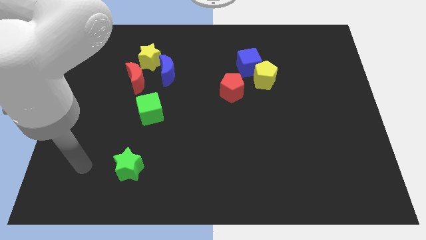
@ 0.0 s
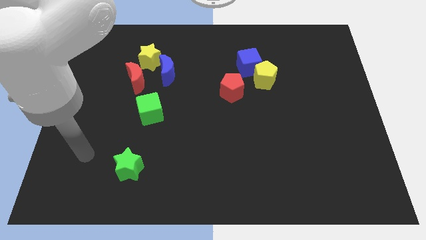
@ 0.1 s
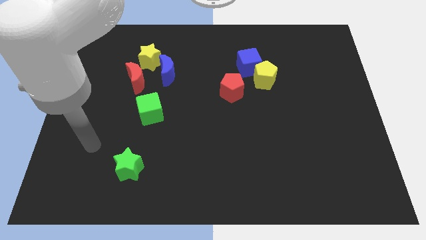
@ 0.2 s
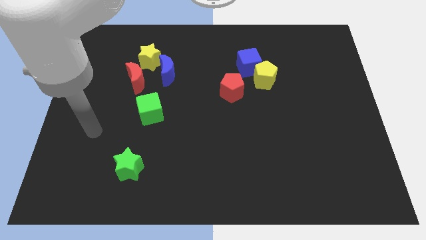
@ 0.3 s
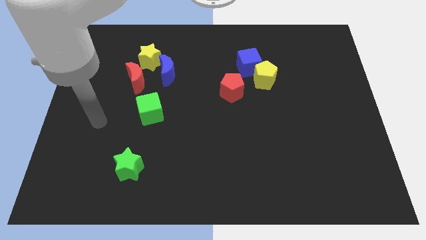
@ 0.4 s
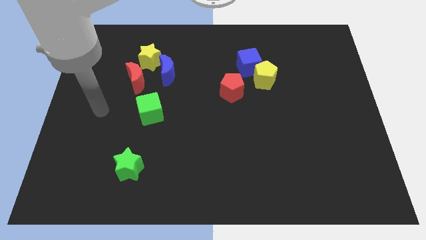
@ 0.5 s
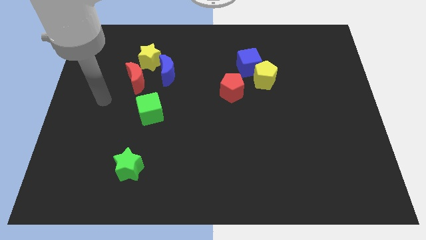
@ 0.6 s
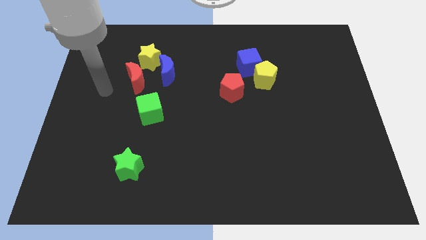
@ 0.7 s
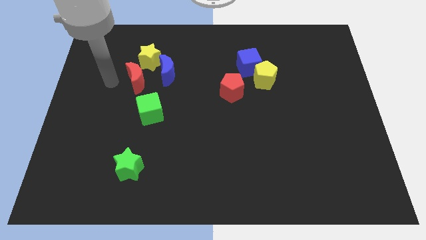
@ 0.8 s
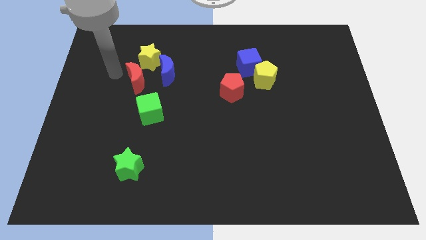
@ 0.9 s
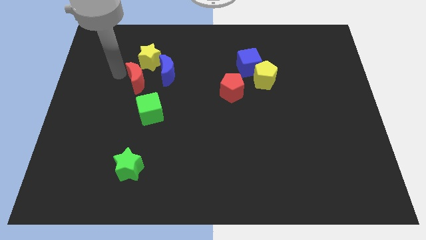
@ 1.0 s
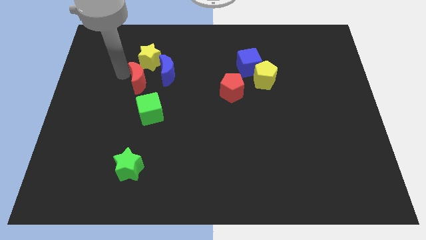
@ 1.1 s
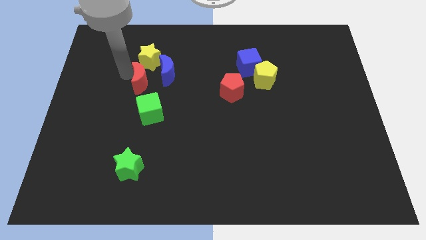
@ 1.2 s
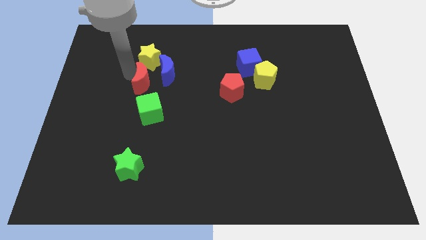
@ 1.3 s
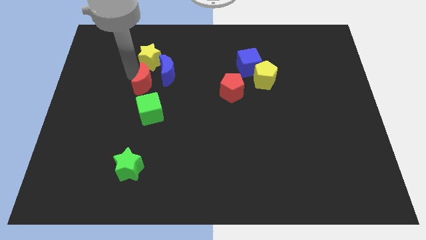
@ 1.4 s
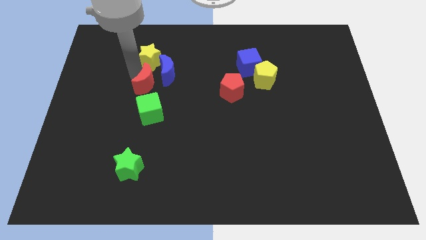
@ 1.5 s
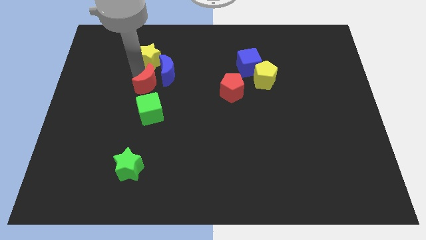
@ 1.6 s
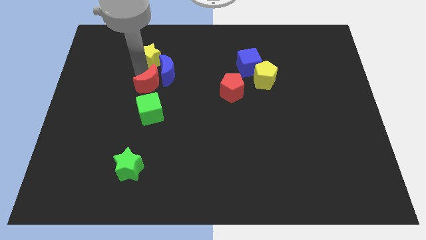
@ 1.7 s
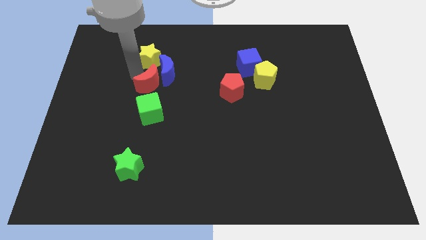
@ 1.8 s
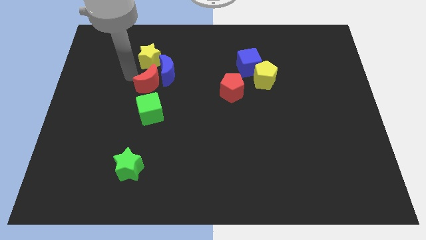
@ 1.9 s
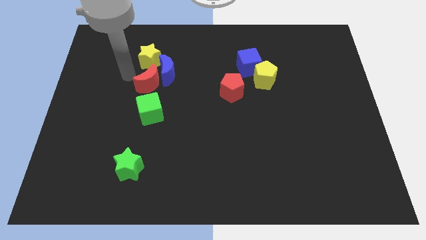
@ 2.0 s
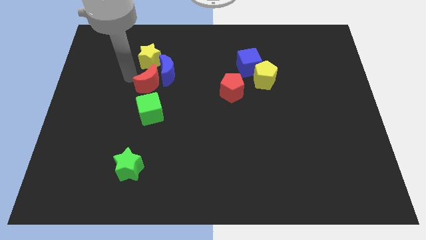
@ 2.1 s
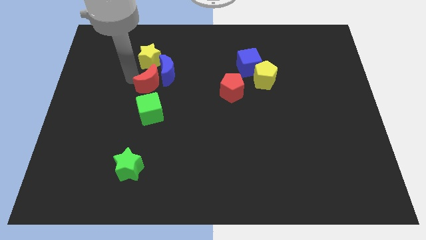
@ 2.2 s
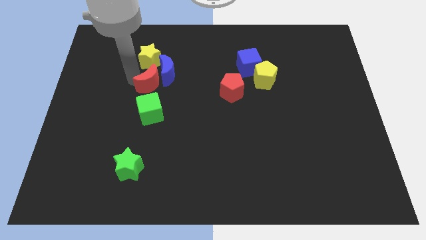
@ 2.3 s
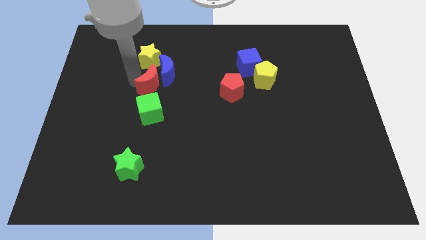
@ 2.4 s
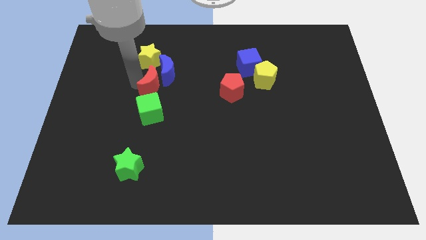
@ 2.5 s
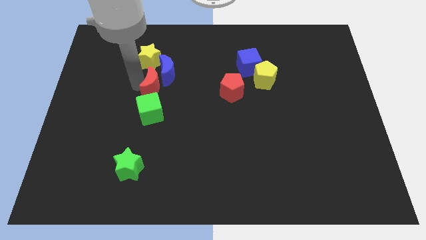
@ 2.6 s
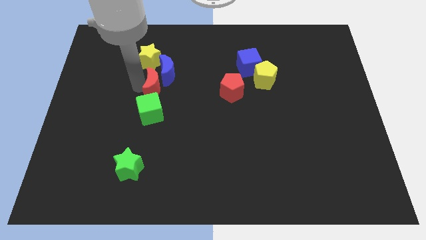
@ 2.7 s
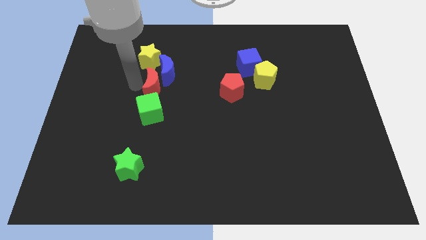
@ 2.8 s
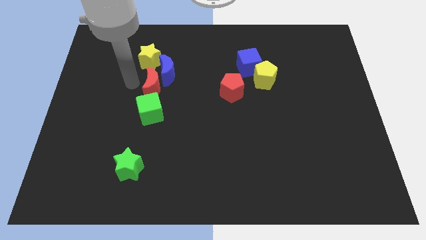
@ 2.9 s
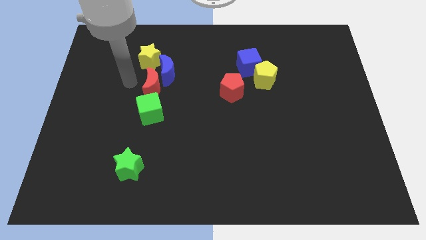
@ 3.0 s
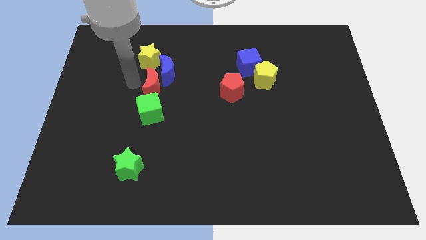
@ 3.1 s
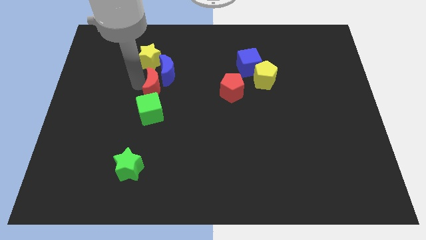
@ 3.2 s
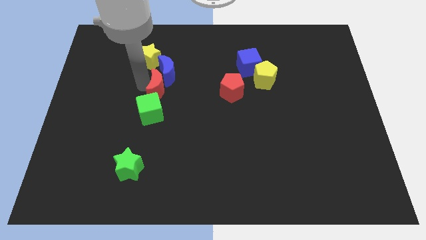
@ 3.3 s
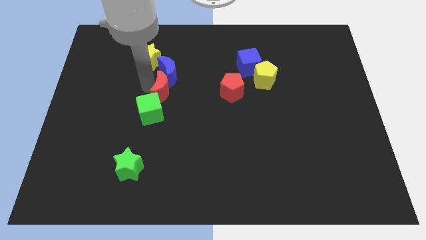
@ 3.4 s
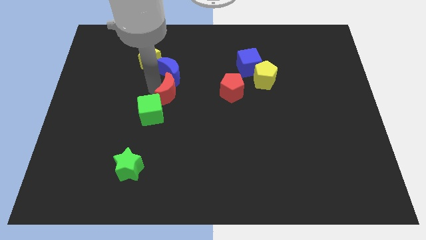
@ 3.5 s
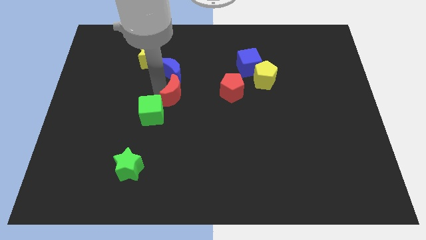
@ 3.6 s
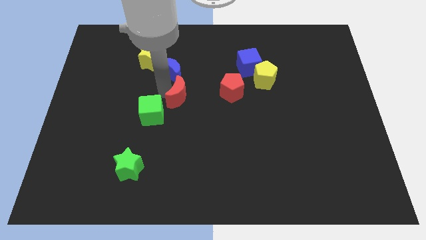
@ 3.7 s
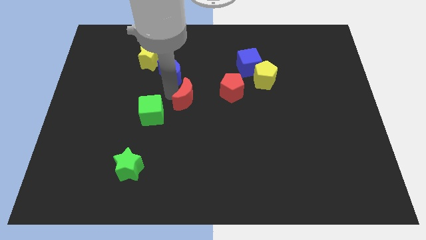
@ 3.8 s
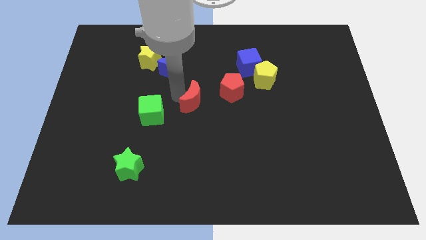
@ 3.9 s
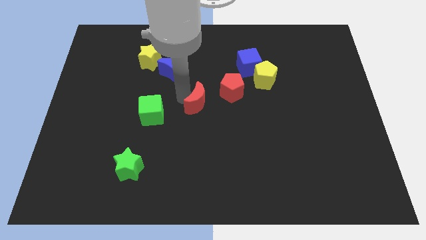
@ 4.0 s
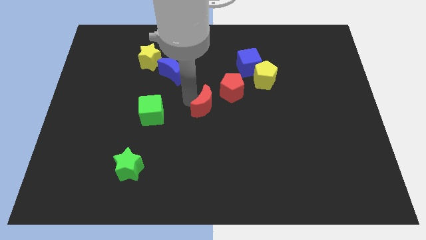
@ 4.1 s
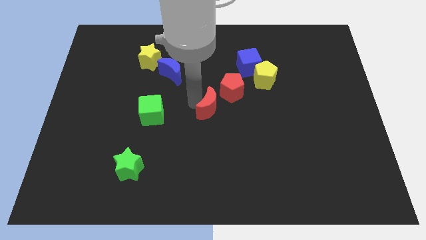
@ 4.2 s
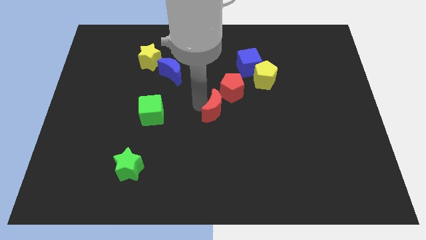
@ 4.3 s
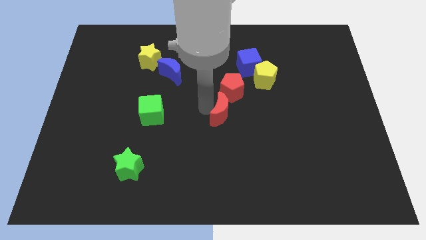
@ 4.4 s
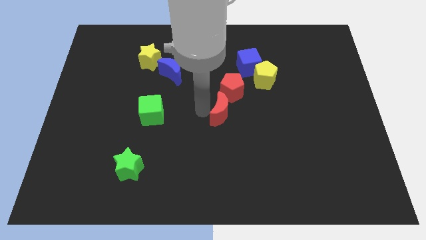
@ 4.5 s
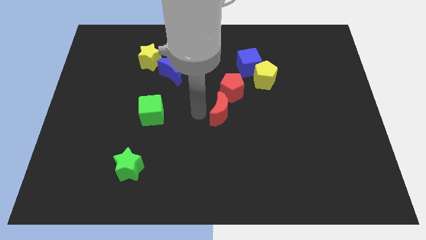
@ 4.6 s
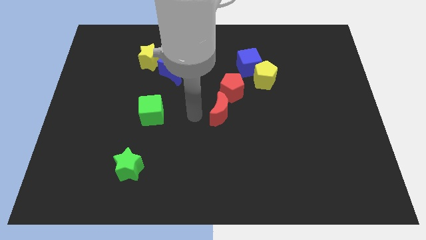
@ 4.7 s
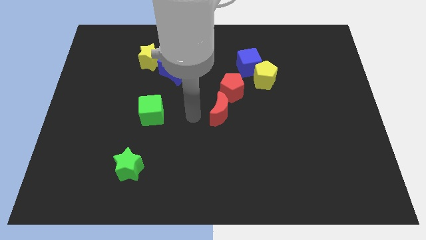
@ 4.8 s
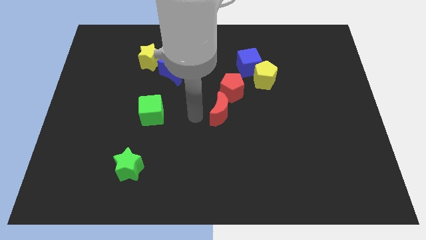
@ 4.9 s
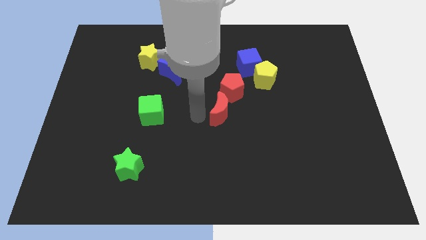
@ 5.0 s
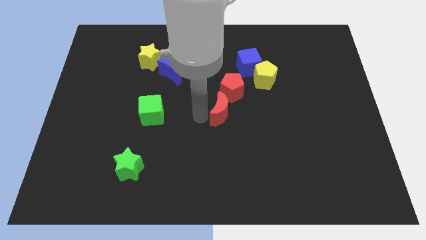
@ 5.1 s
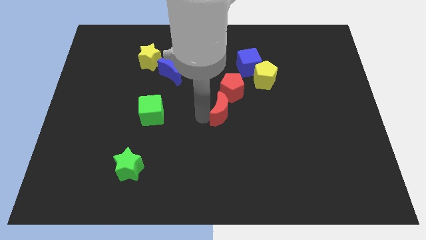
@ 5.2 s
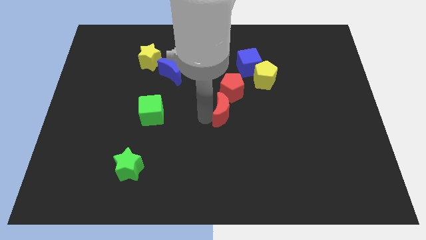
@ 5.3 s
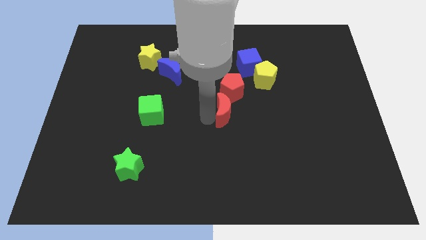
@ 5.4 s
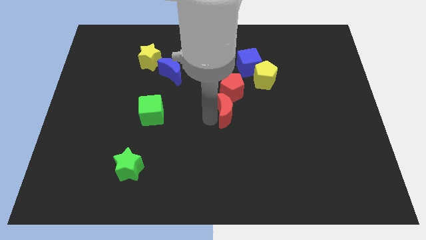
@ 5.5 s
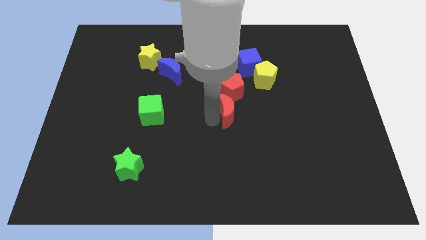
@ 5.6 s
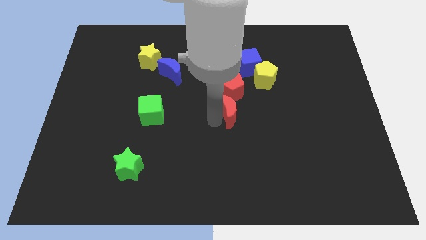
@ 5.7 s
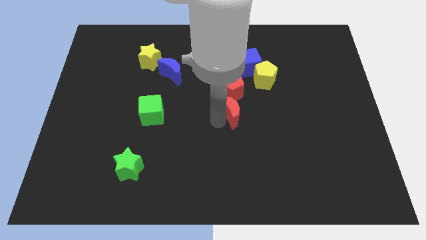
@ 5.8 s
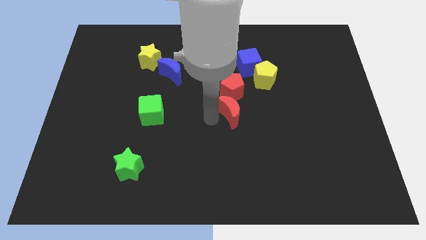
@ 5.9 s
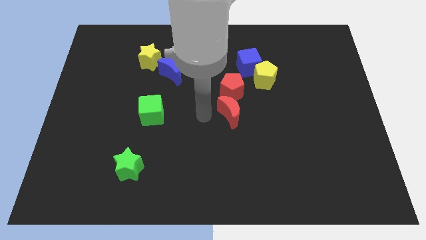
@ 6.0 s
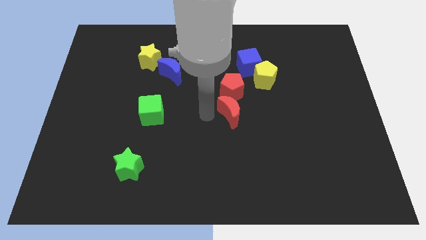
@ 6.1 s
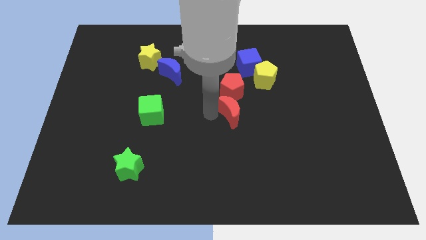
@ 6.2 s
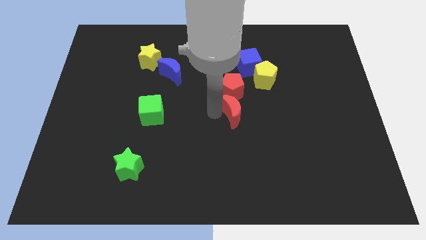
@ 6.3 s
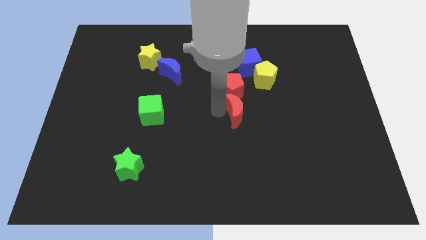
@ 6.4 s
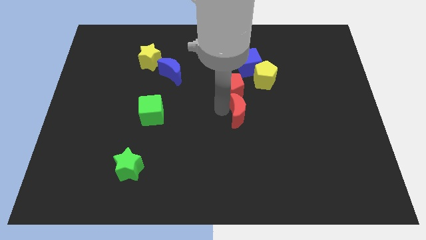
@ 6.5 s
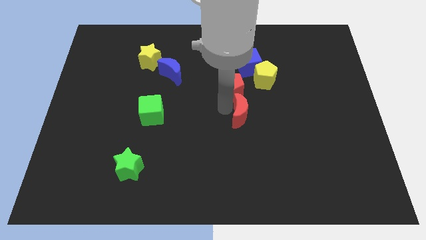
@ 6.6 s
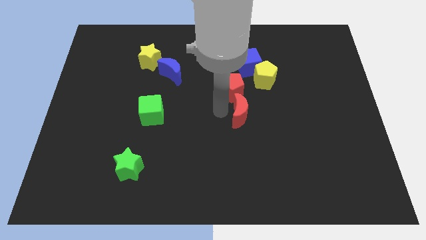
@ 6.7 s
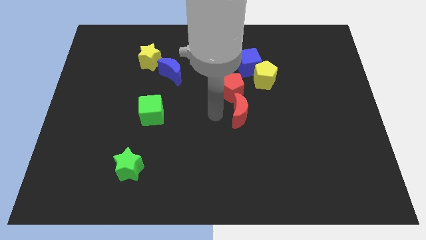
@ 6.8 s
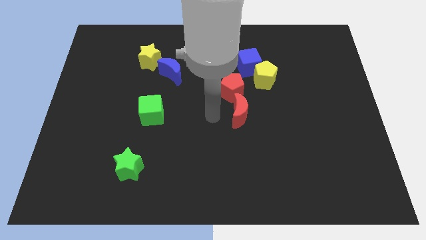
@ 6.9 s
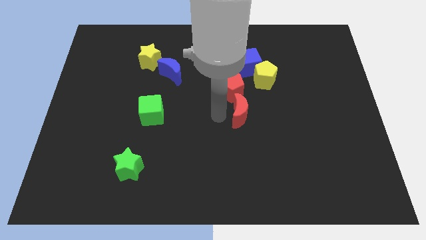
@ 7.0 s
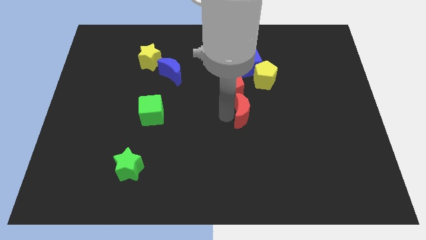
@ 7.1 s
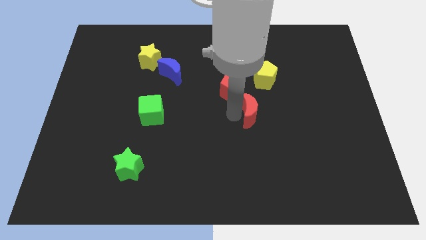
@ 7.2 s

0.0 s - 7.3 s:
slide the red moon below the yellow pentagon
